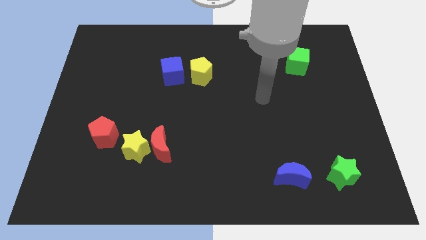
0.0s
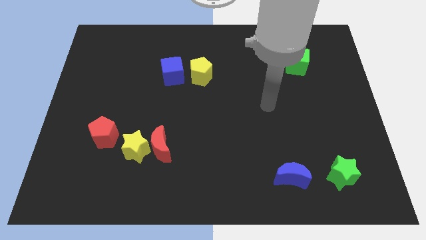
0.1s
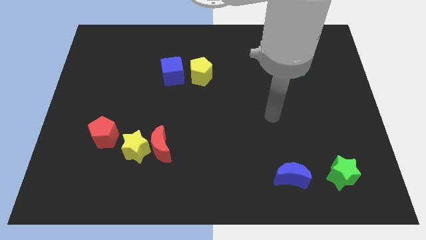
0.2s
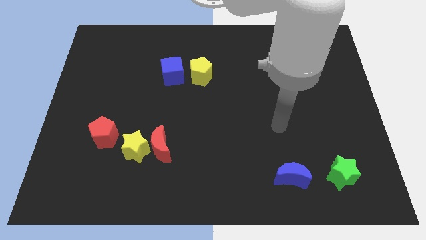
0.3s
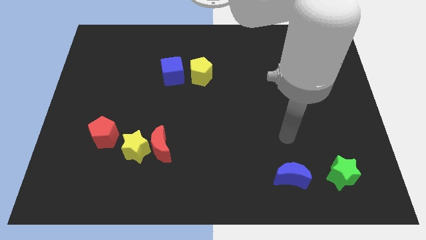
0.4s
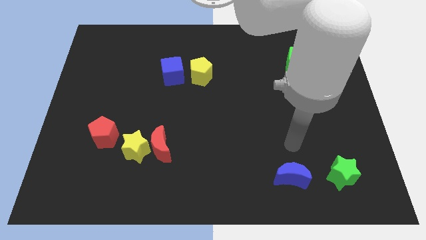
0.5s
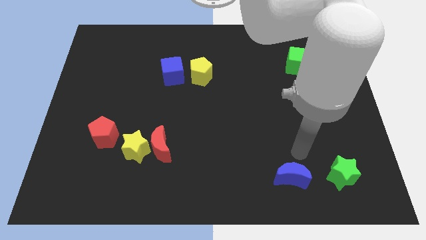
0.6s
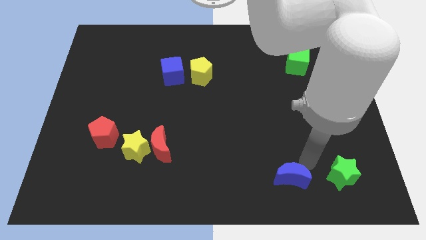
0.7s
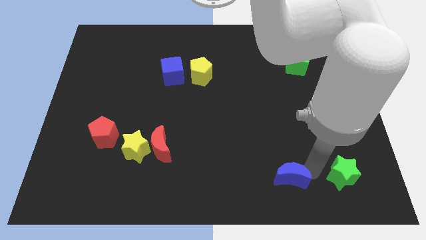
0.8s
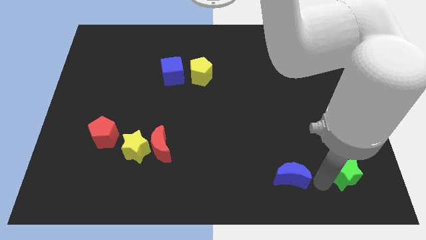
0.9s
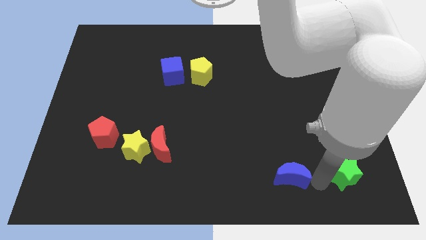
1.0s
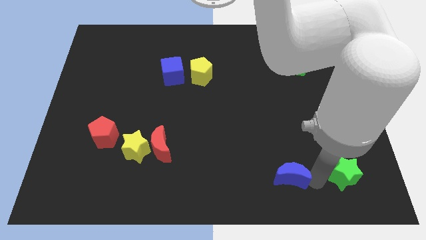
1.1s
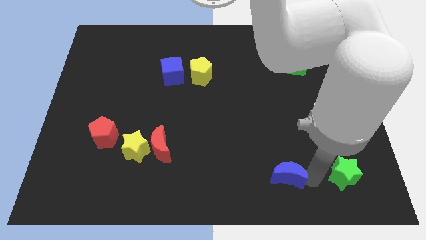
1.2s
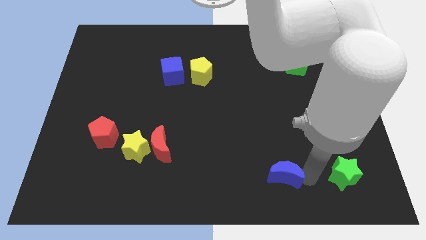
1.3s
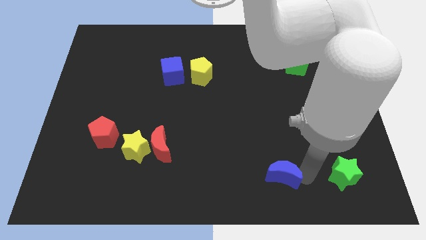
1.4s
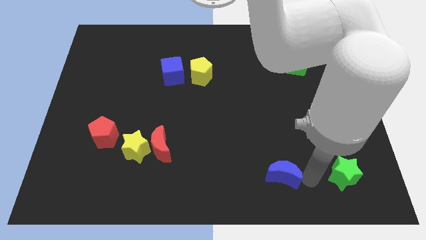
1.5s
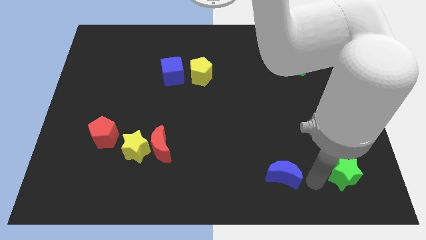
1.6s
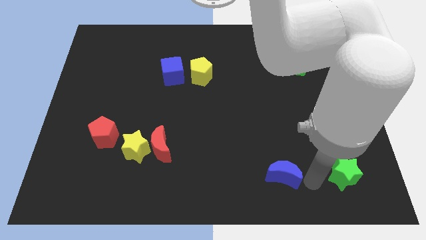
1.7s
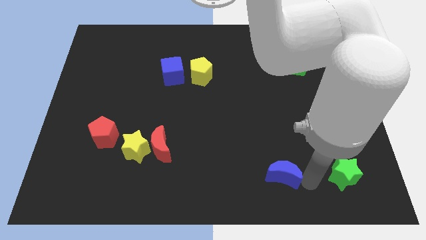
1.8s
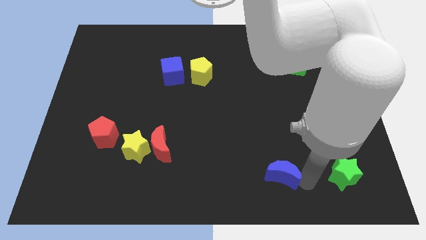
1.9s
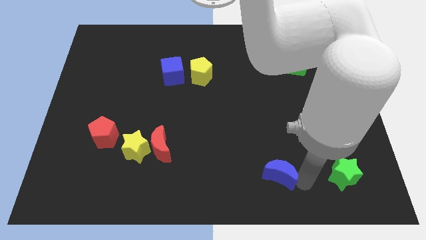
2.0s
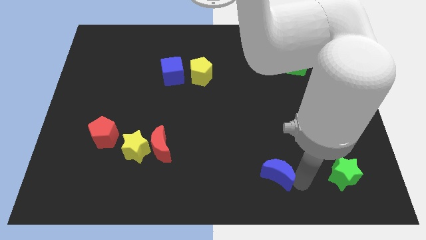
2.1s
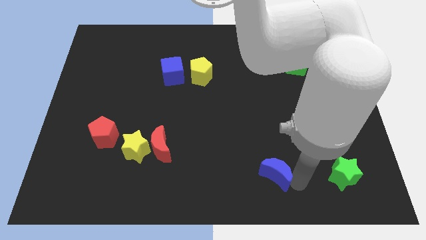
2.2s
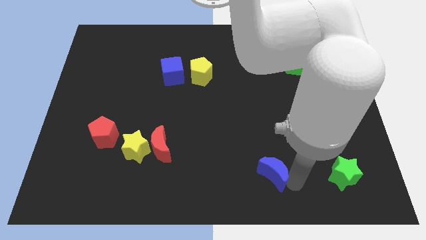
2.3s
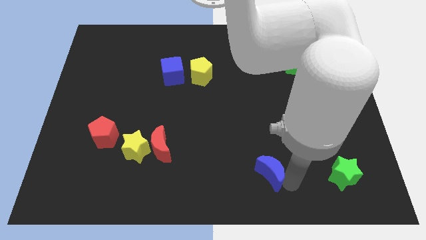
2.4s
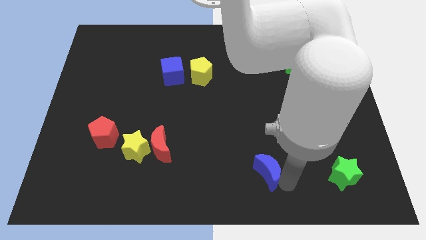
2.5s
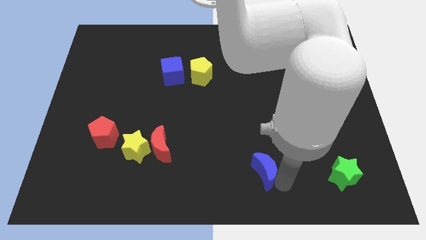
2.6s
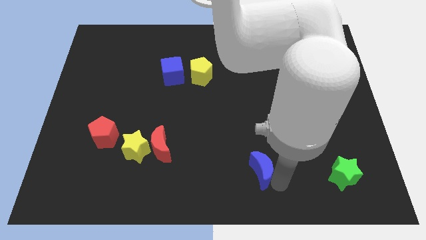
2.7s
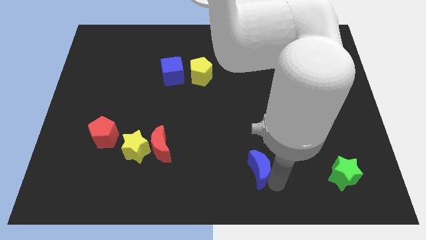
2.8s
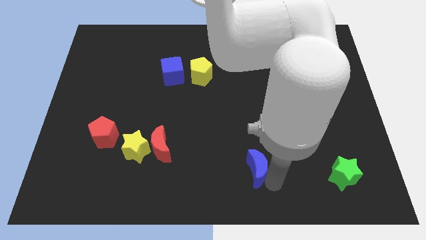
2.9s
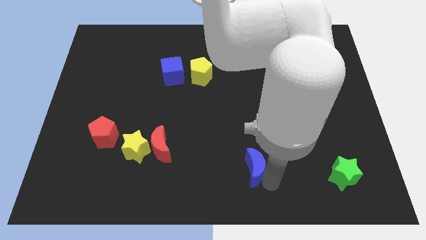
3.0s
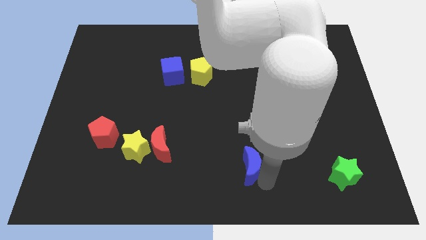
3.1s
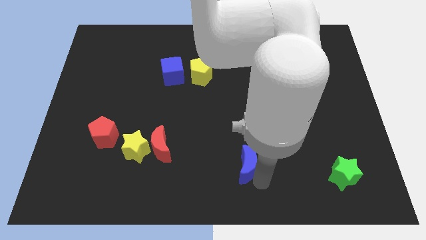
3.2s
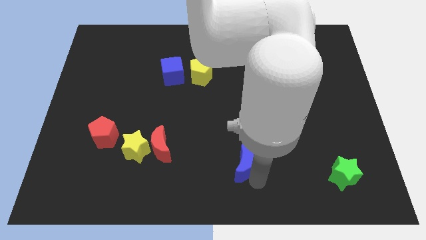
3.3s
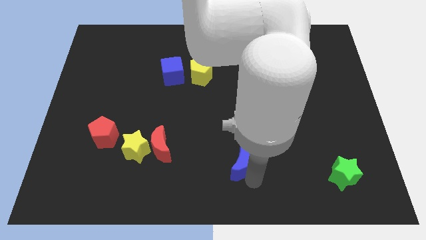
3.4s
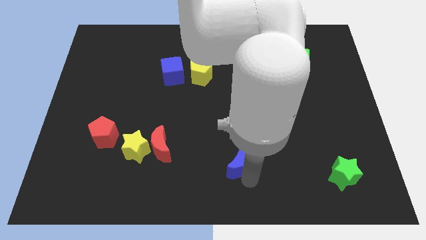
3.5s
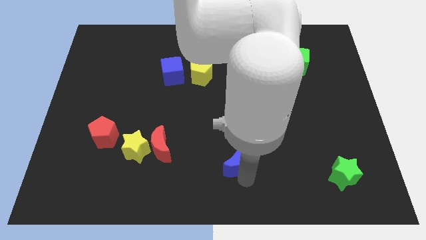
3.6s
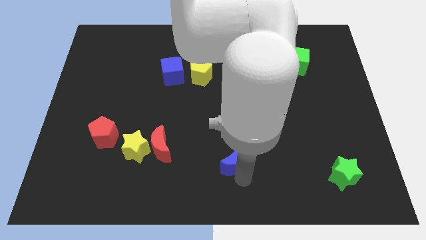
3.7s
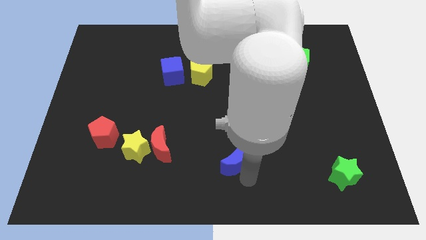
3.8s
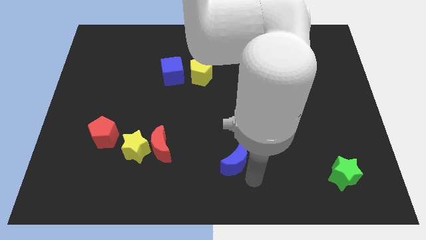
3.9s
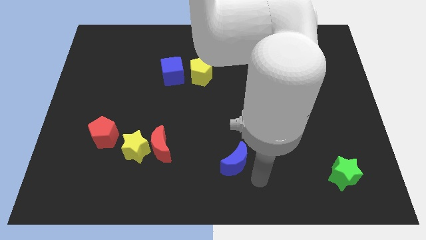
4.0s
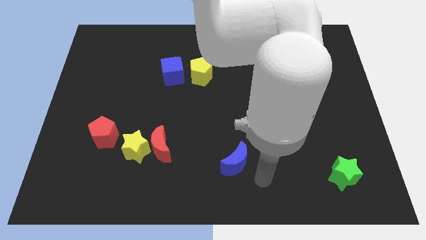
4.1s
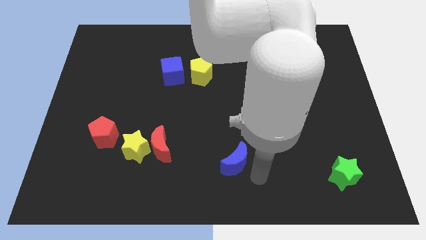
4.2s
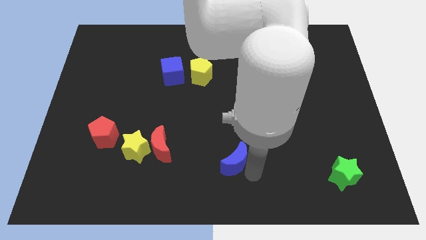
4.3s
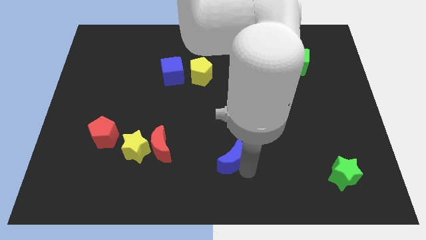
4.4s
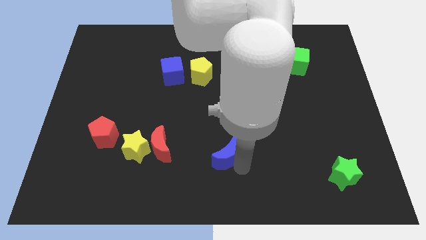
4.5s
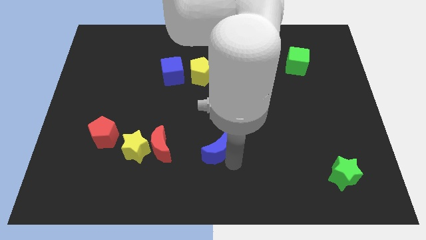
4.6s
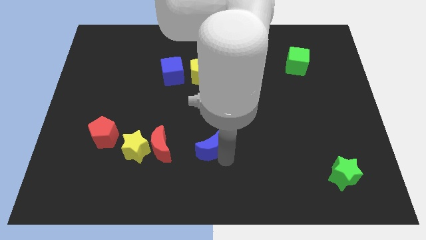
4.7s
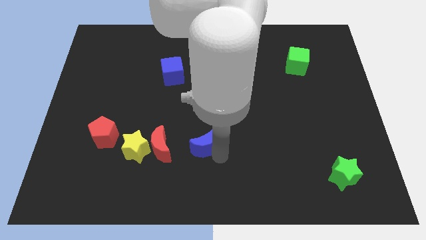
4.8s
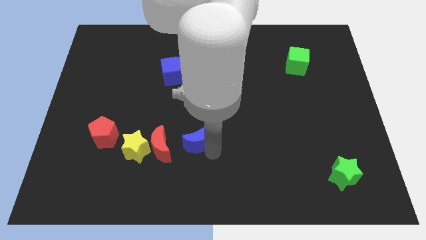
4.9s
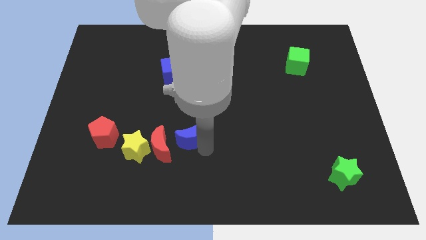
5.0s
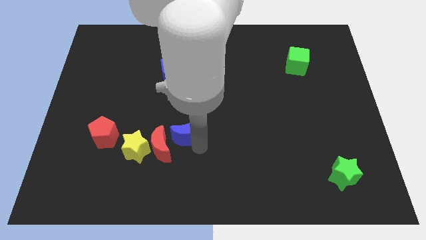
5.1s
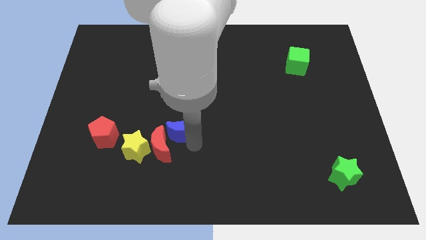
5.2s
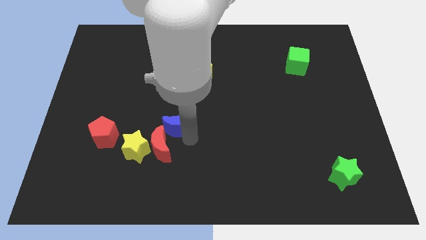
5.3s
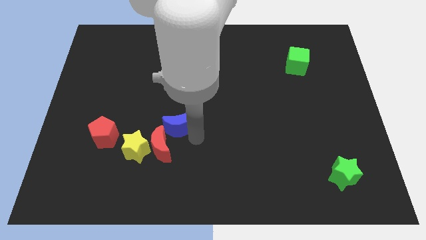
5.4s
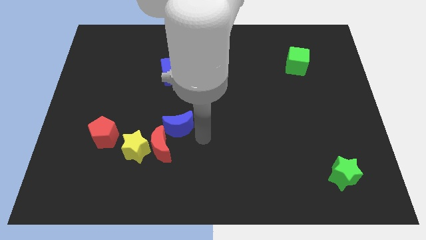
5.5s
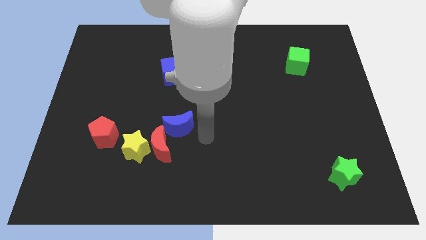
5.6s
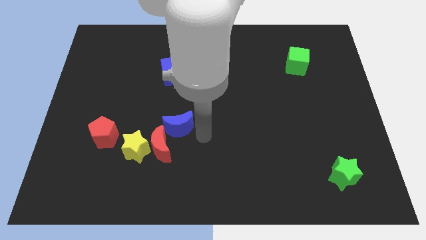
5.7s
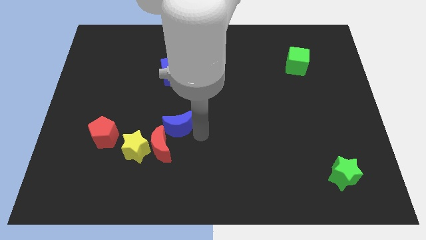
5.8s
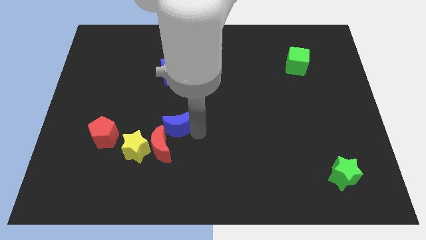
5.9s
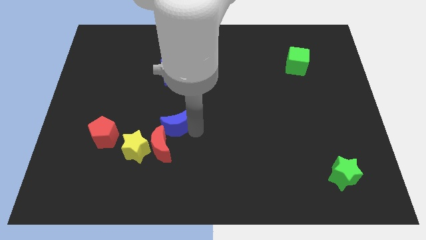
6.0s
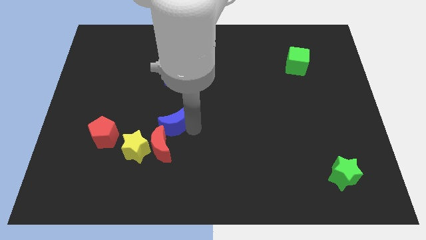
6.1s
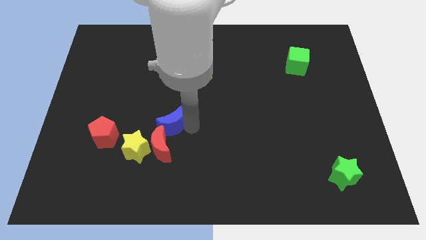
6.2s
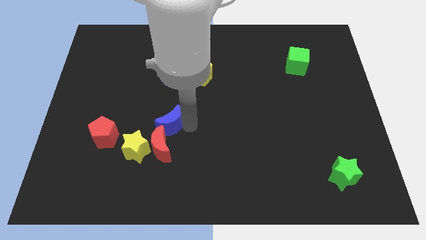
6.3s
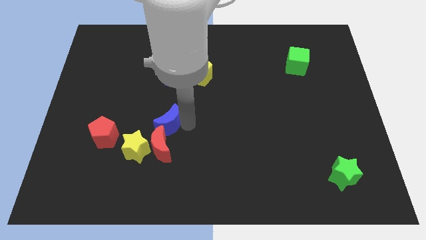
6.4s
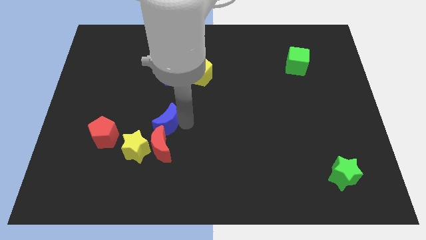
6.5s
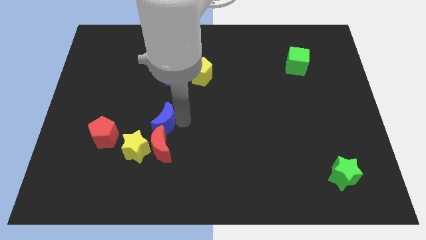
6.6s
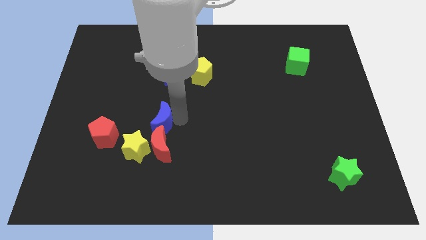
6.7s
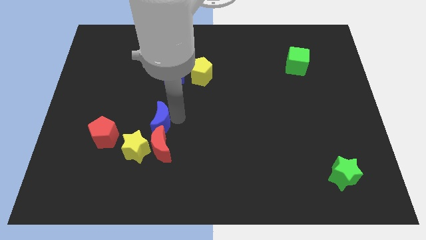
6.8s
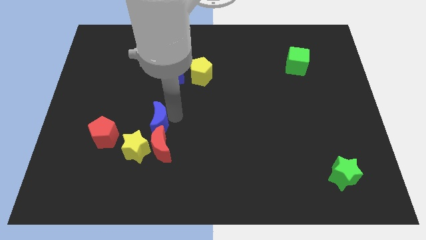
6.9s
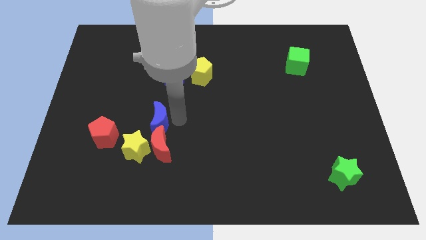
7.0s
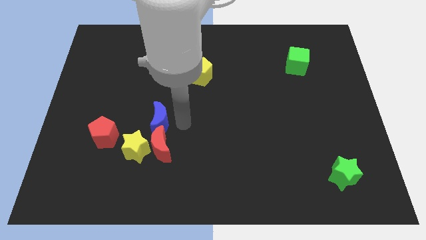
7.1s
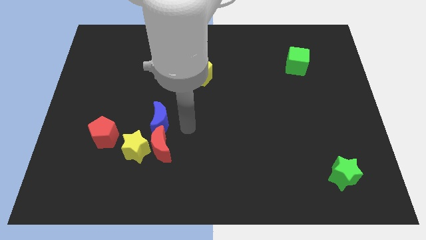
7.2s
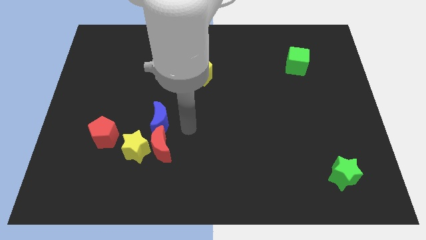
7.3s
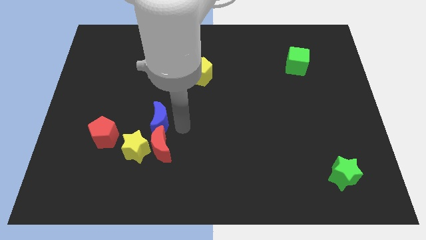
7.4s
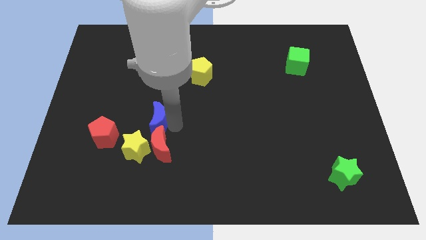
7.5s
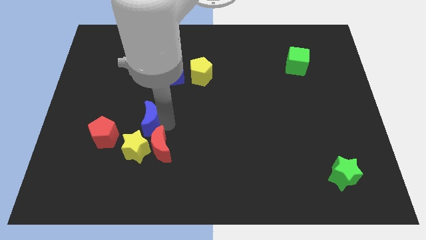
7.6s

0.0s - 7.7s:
put the blue moon to the top right side of the red pentagon
